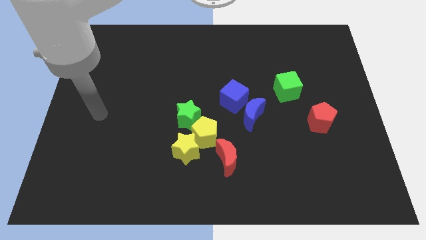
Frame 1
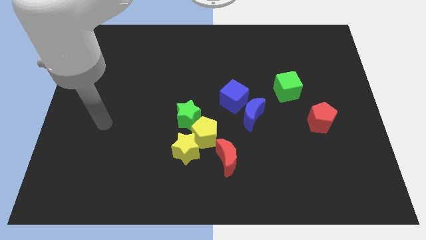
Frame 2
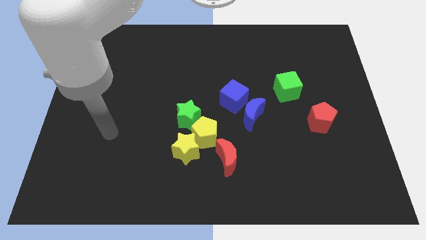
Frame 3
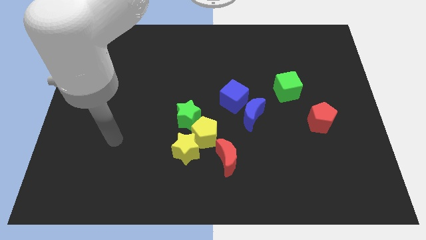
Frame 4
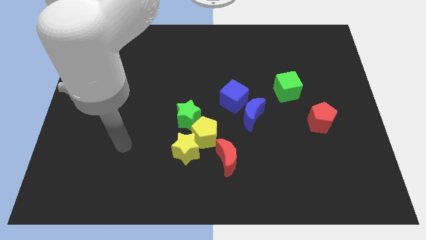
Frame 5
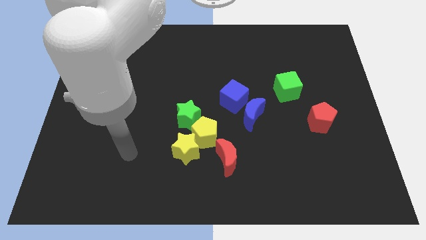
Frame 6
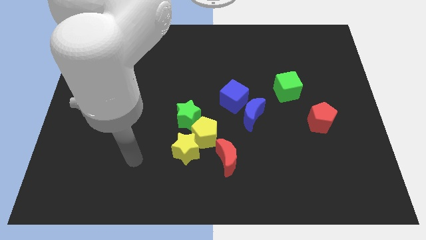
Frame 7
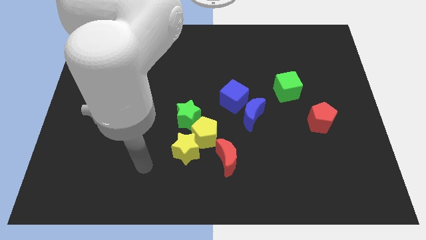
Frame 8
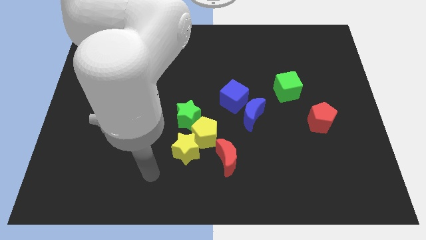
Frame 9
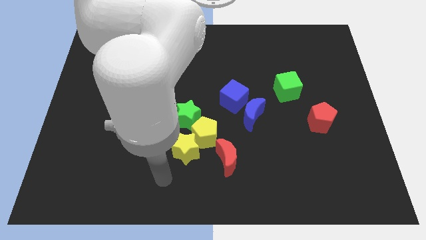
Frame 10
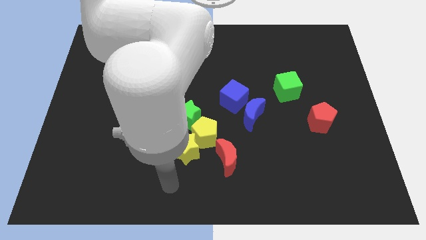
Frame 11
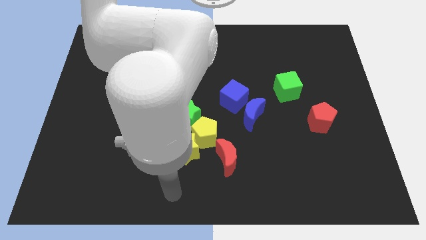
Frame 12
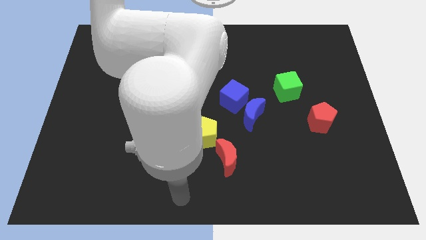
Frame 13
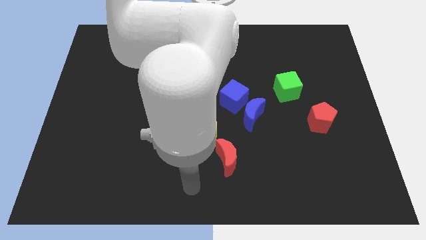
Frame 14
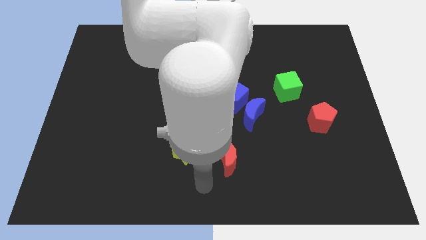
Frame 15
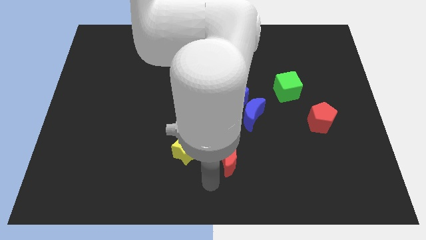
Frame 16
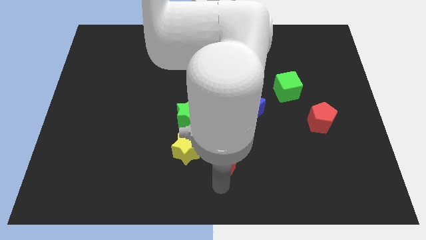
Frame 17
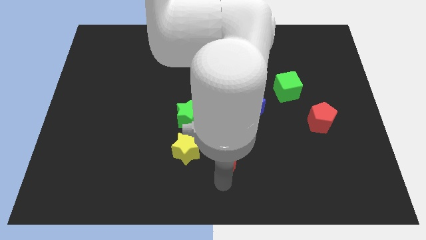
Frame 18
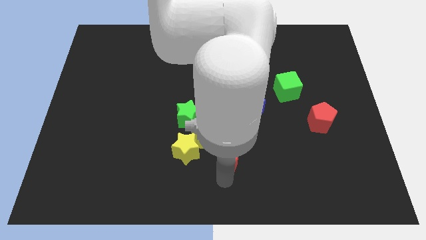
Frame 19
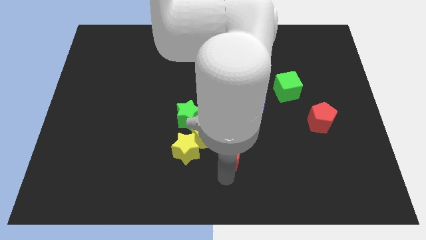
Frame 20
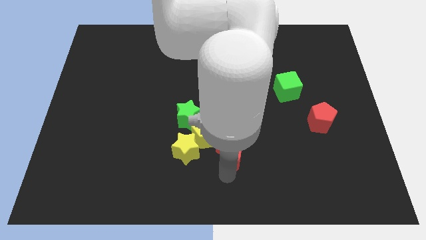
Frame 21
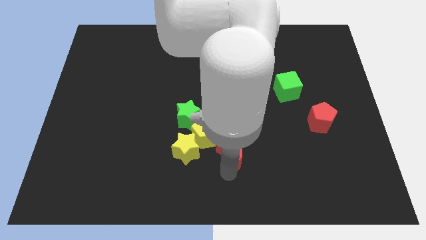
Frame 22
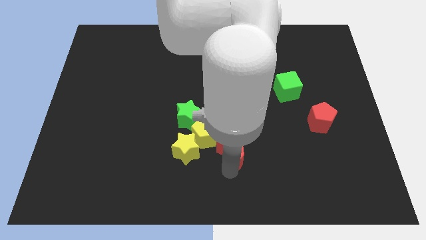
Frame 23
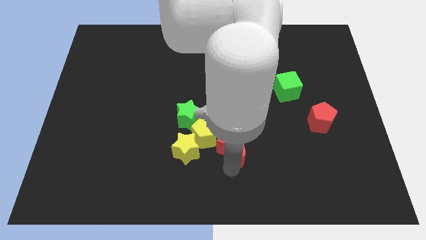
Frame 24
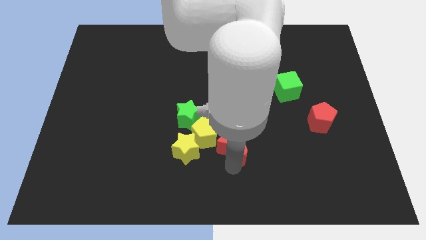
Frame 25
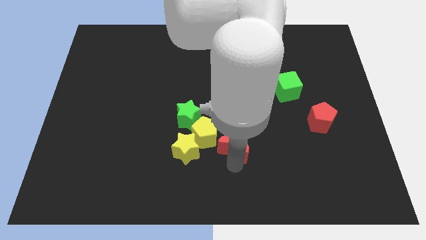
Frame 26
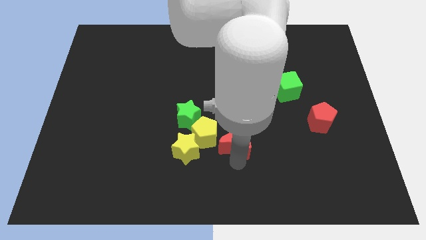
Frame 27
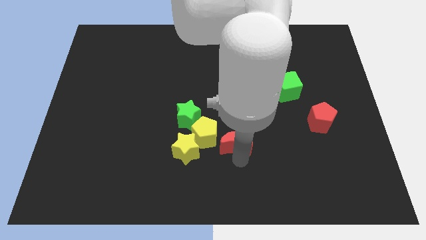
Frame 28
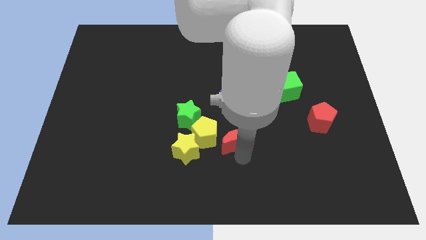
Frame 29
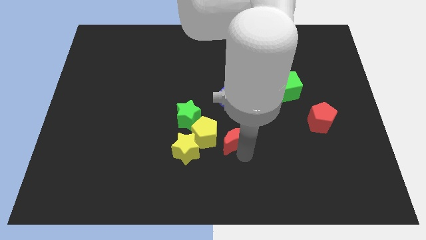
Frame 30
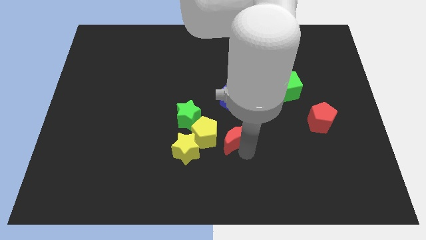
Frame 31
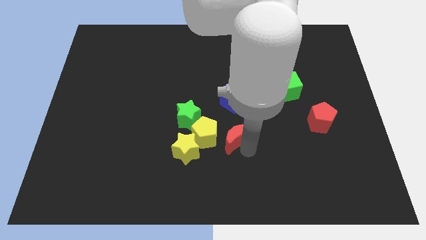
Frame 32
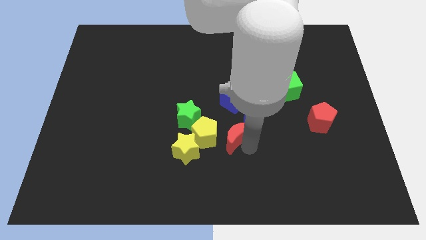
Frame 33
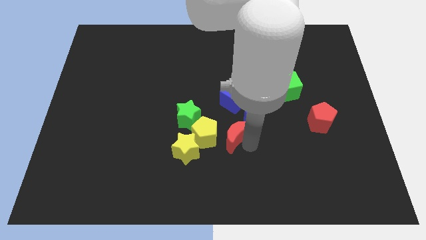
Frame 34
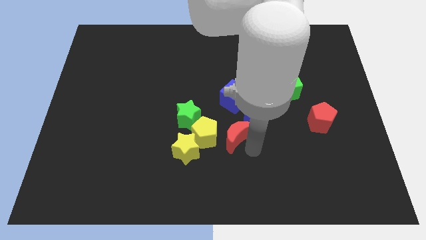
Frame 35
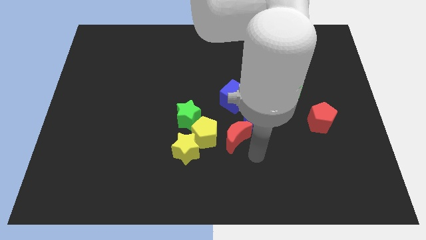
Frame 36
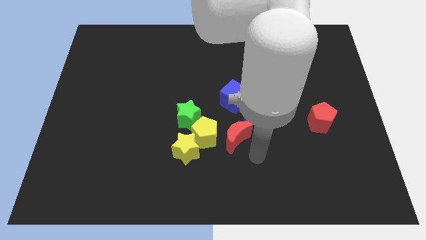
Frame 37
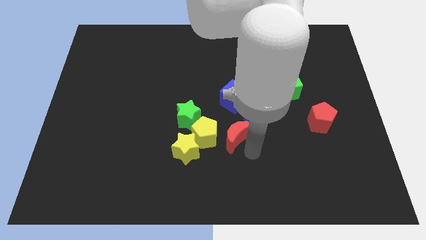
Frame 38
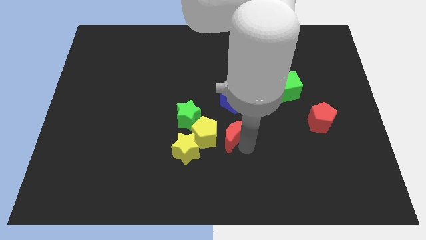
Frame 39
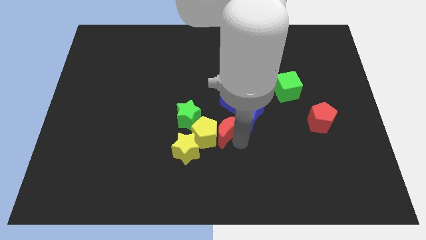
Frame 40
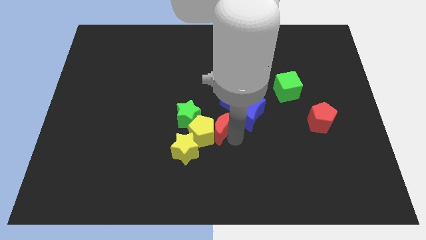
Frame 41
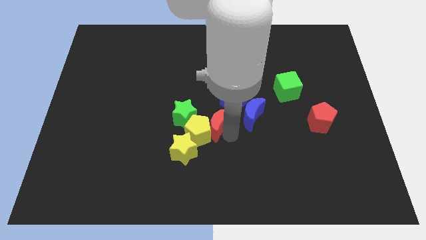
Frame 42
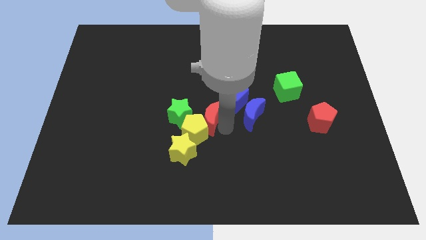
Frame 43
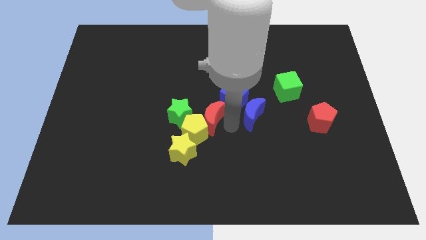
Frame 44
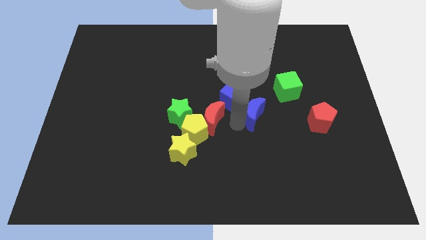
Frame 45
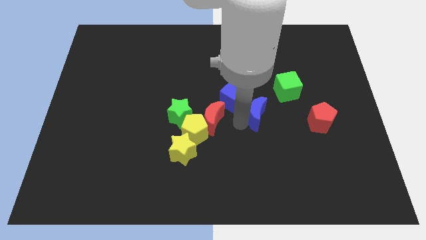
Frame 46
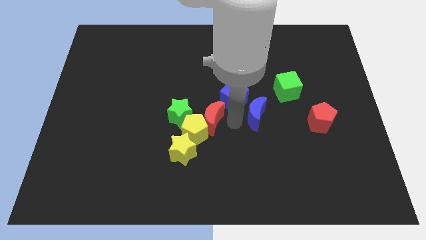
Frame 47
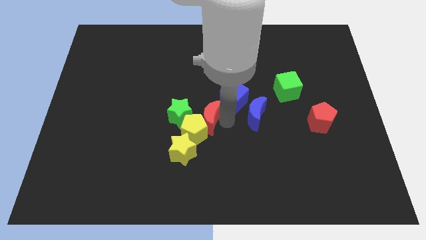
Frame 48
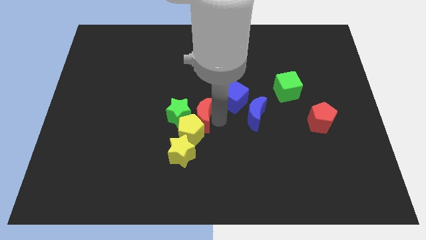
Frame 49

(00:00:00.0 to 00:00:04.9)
slide the red moon to the green star

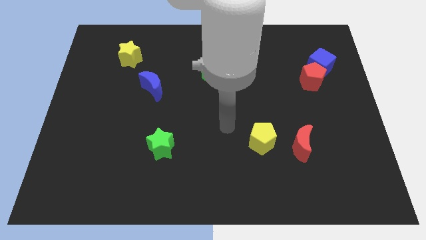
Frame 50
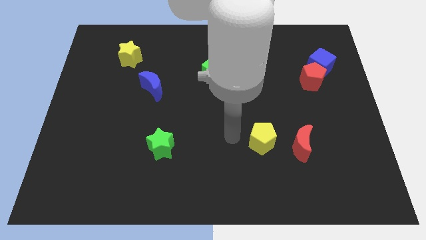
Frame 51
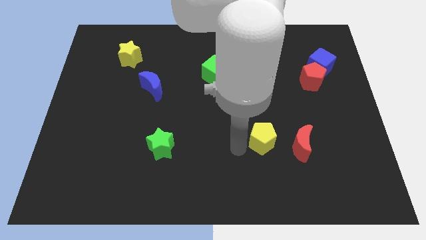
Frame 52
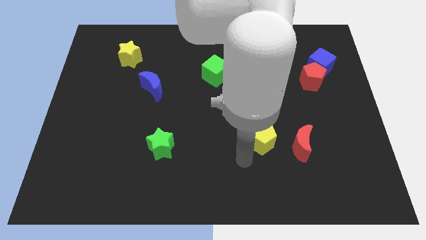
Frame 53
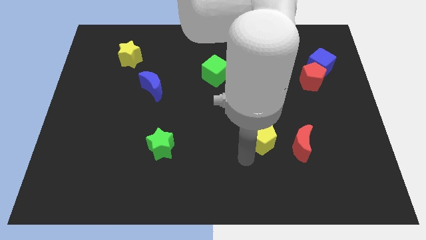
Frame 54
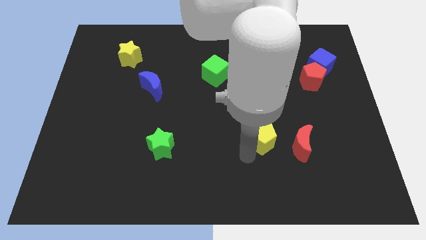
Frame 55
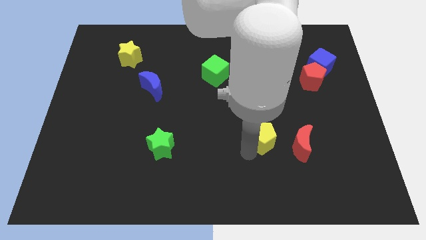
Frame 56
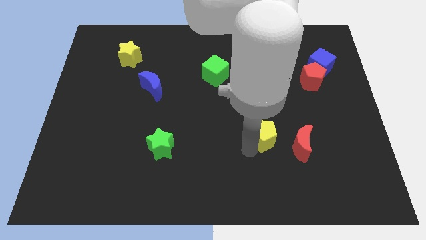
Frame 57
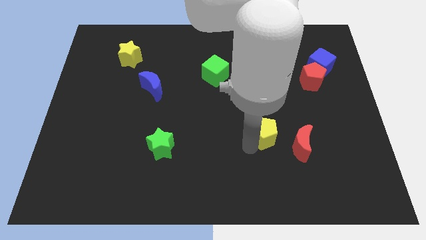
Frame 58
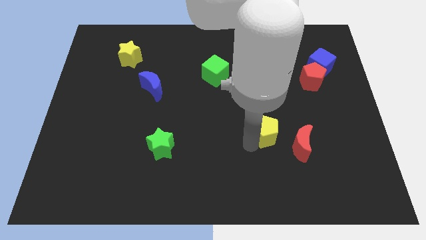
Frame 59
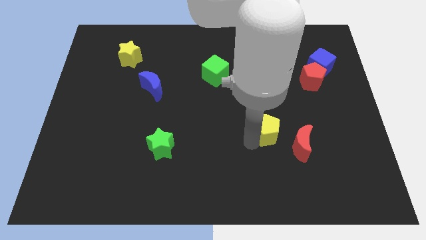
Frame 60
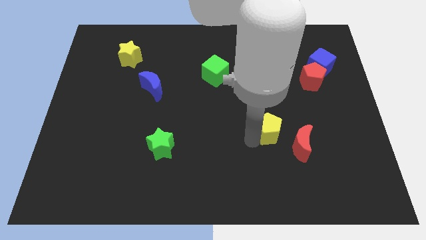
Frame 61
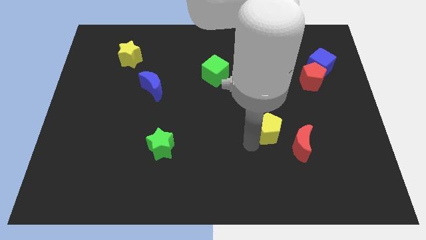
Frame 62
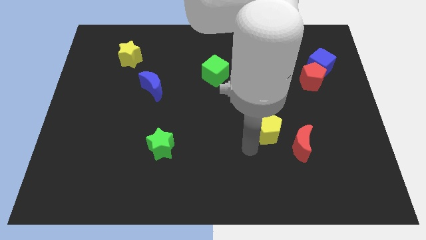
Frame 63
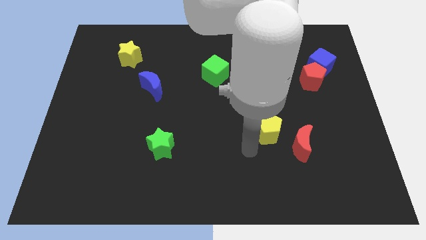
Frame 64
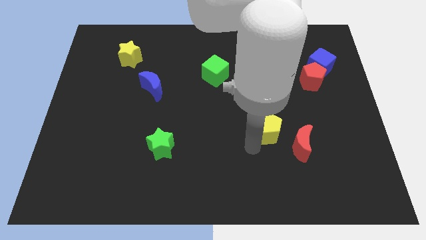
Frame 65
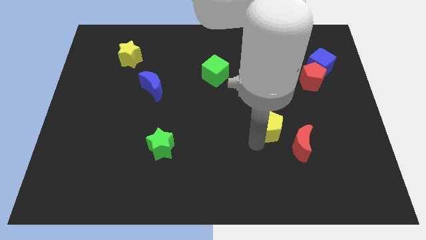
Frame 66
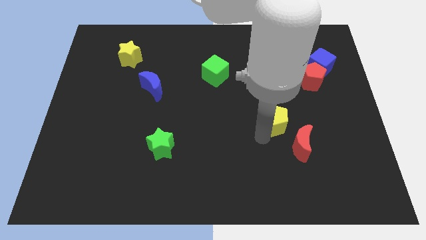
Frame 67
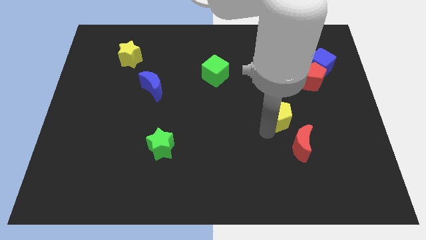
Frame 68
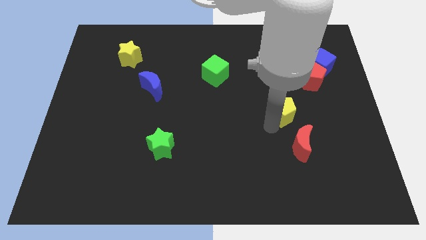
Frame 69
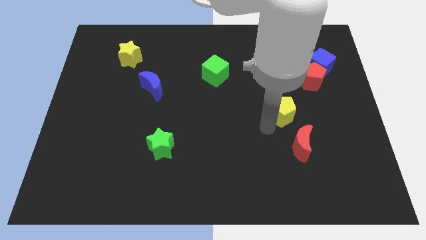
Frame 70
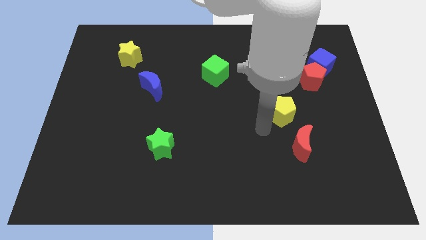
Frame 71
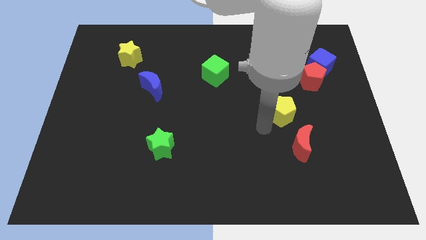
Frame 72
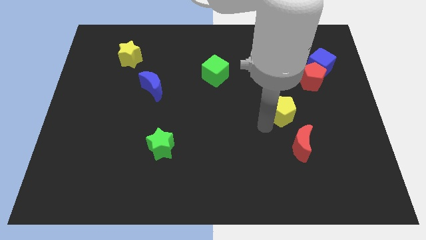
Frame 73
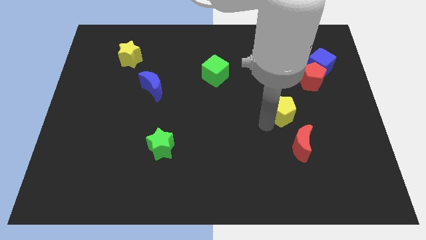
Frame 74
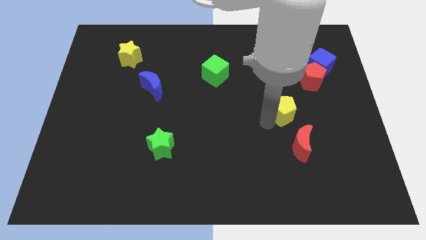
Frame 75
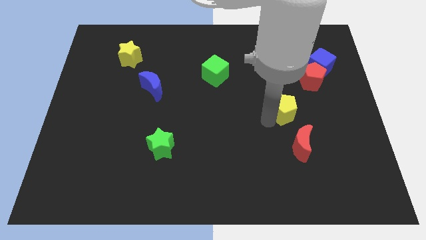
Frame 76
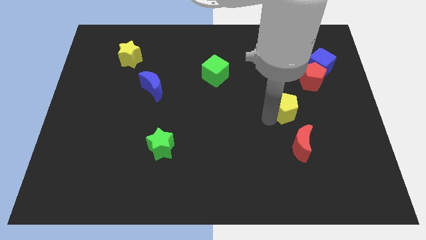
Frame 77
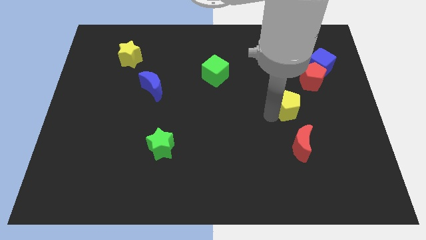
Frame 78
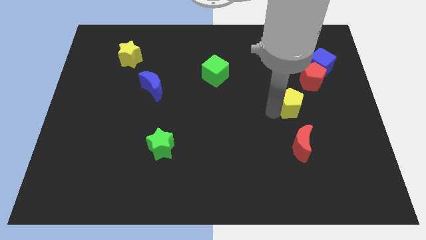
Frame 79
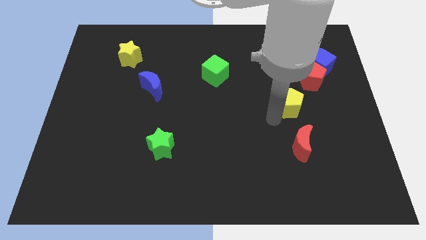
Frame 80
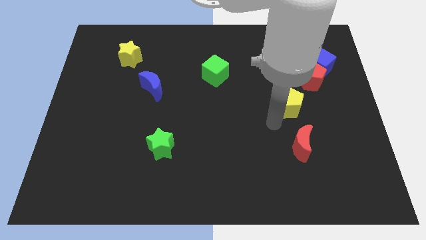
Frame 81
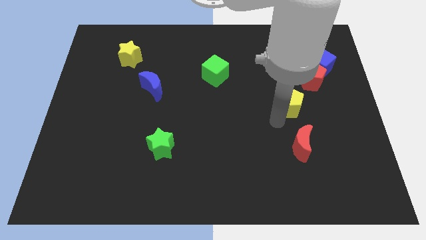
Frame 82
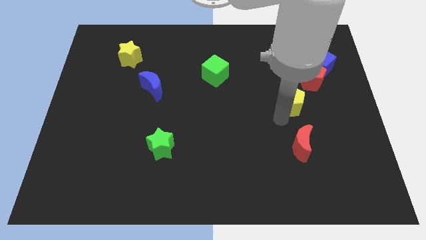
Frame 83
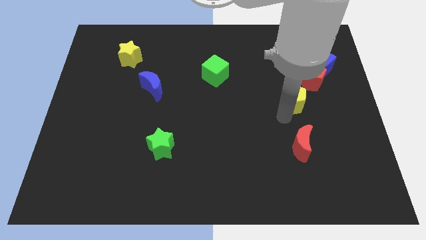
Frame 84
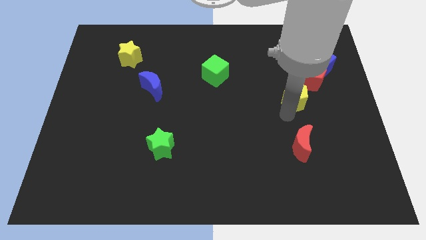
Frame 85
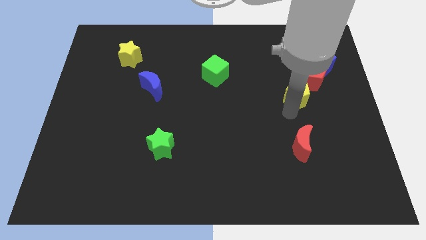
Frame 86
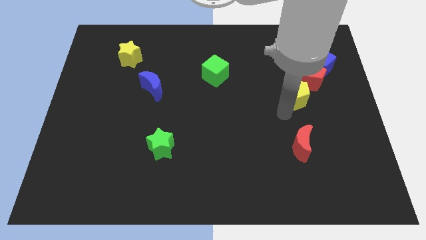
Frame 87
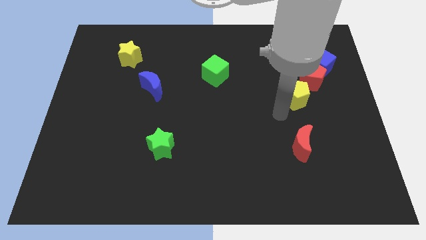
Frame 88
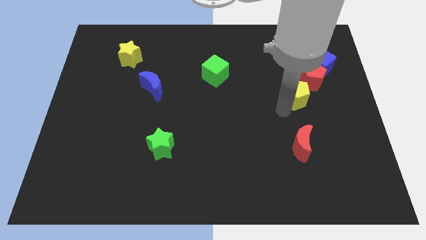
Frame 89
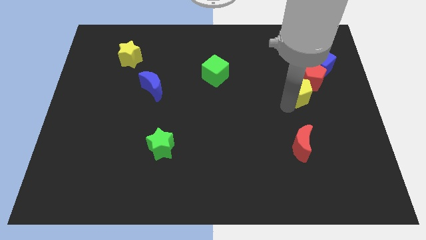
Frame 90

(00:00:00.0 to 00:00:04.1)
slide the yellow pentagon next to the red pentagon
